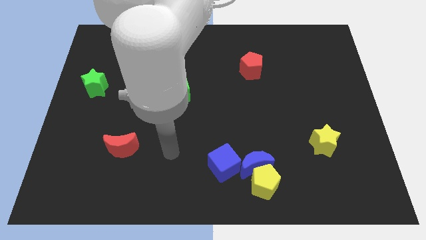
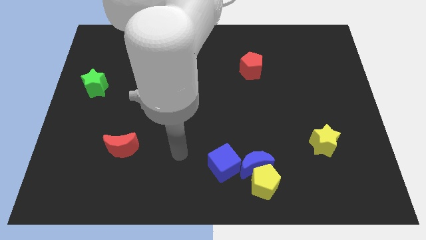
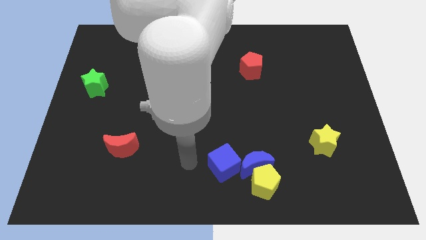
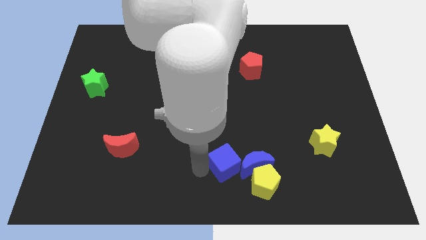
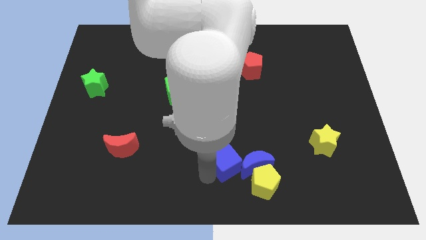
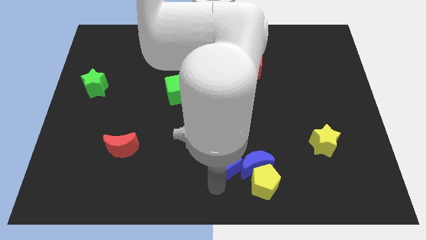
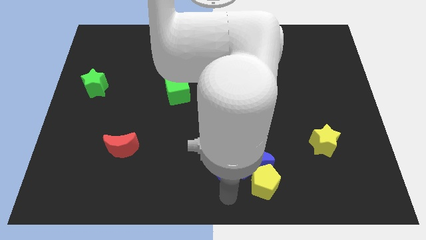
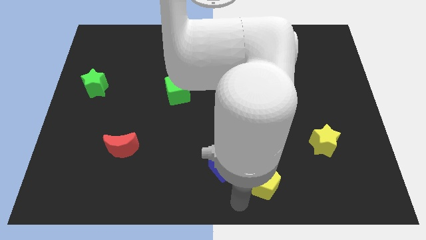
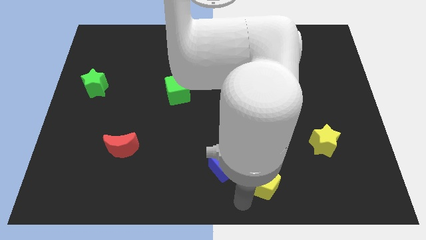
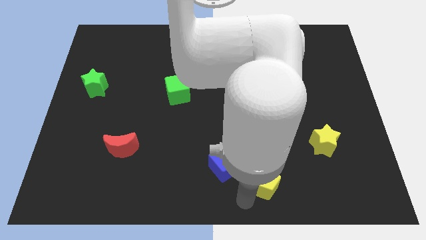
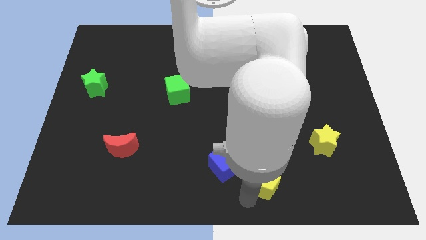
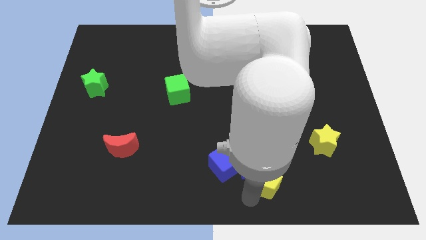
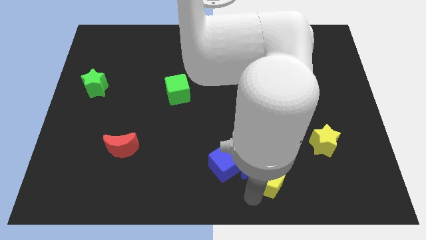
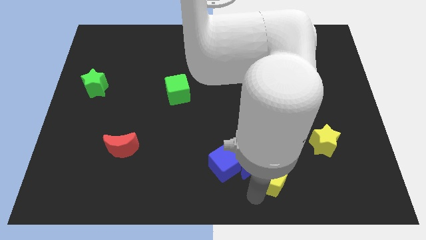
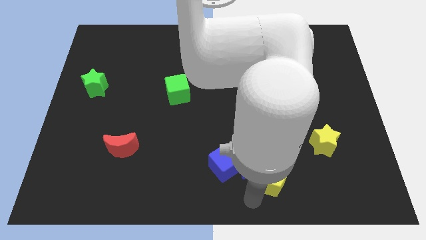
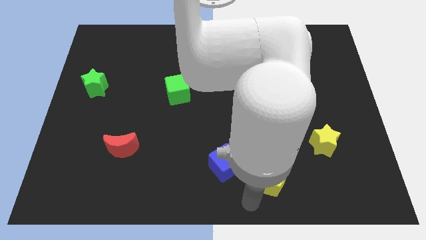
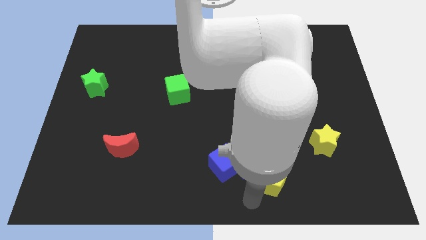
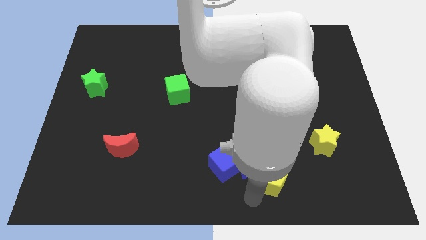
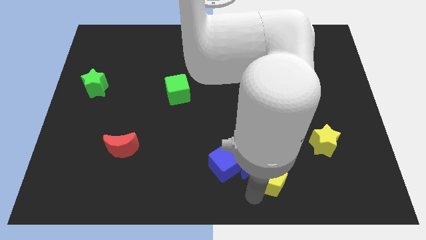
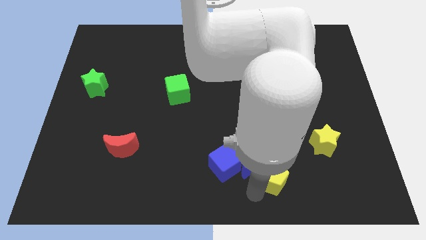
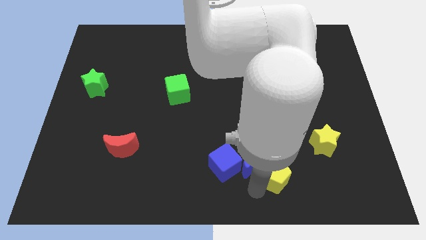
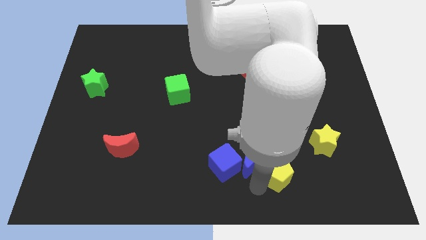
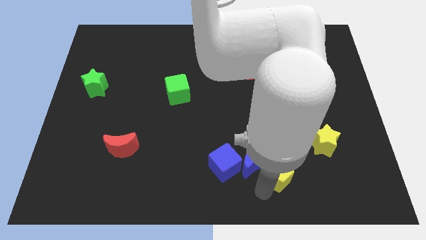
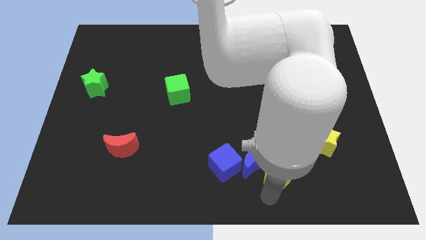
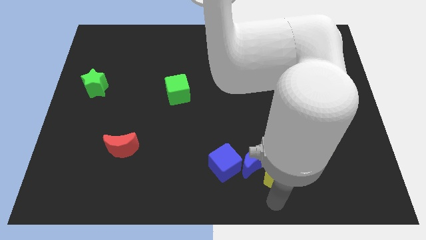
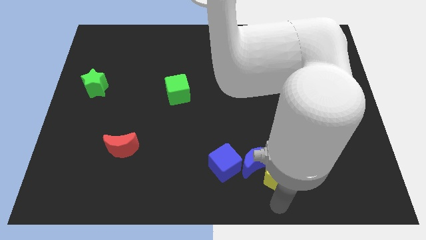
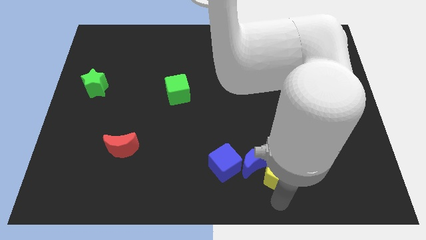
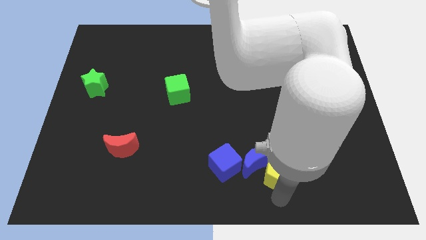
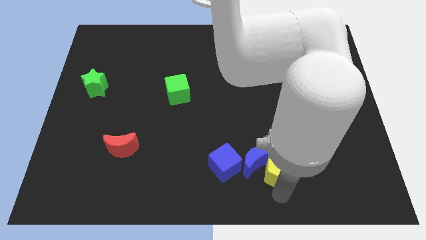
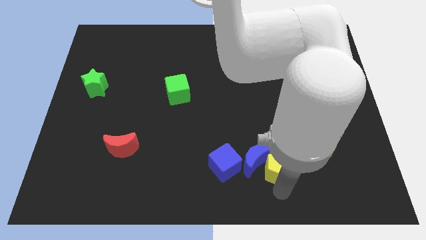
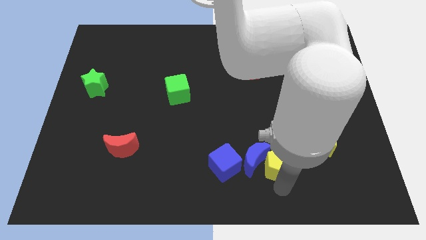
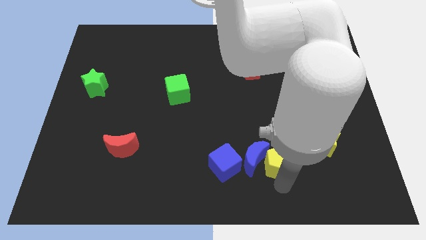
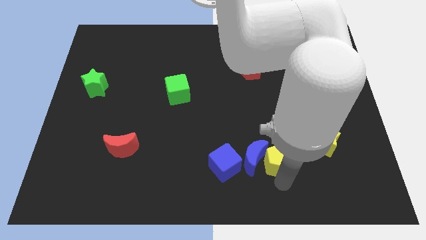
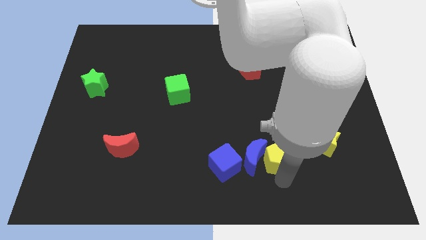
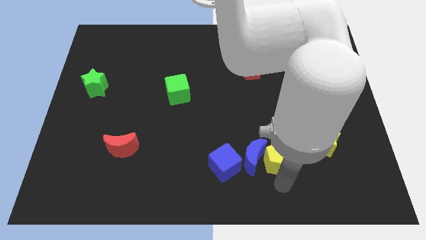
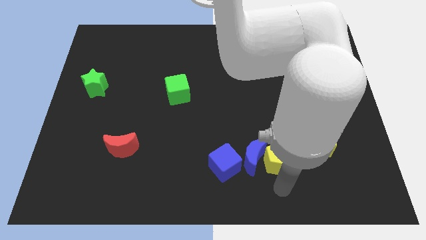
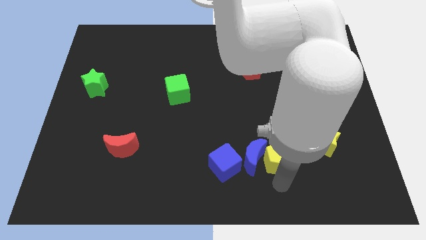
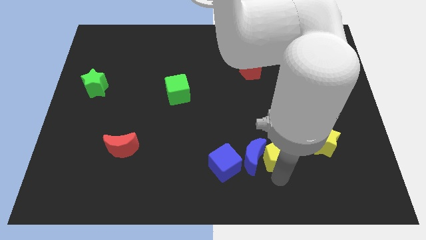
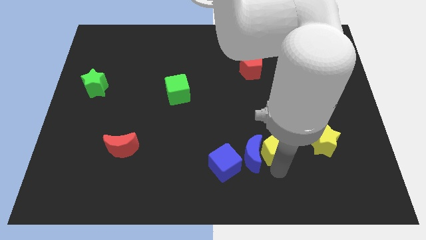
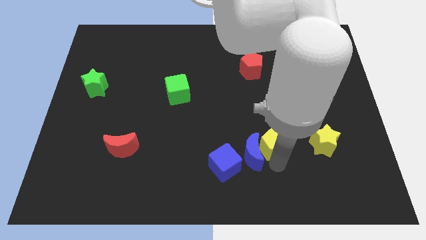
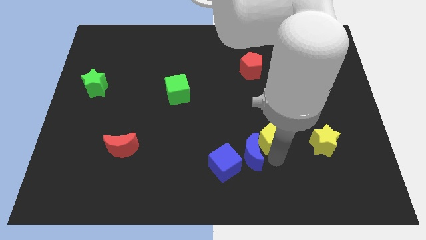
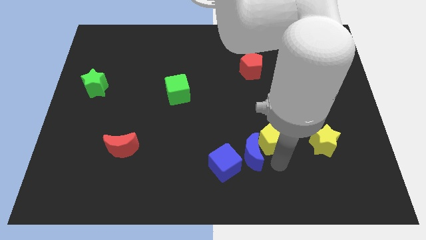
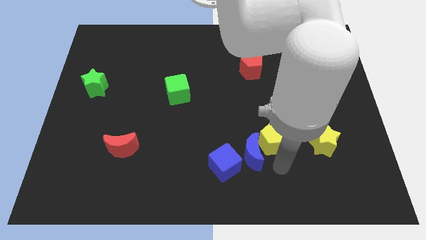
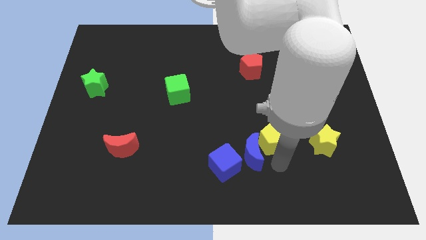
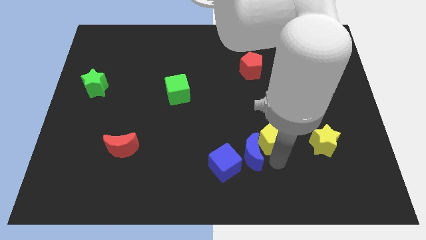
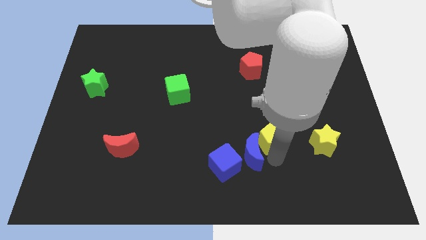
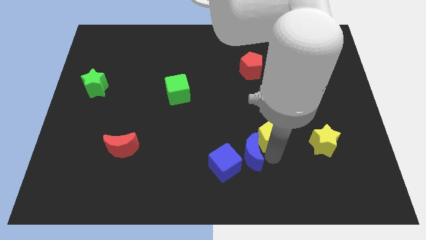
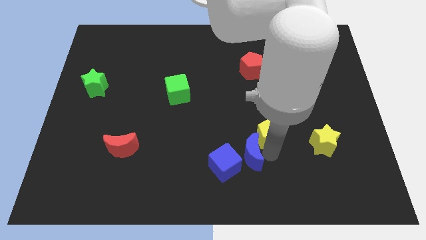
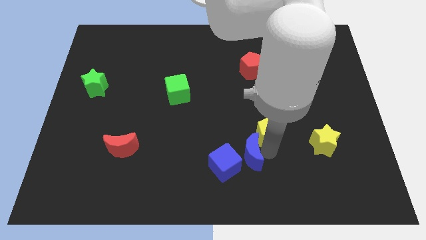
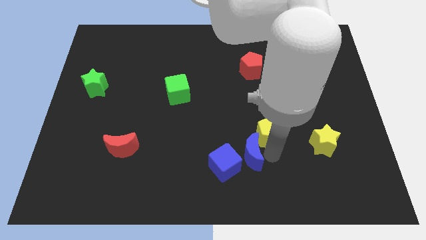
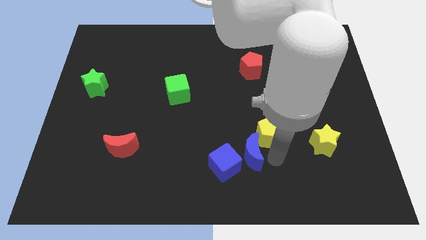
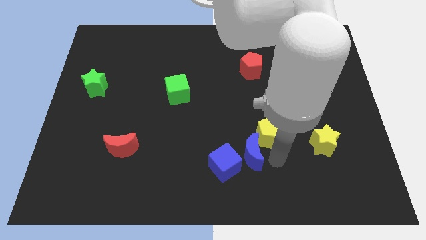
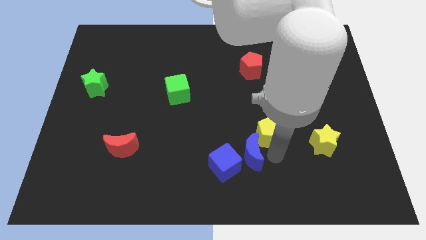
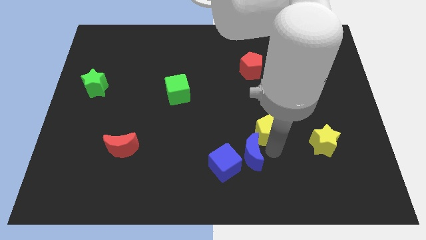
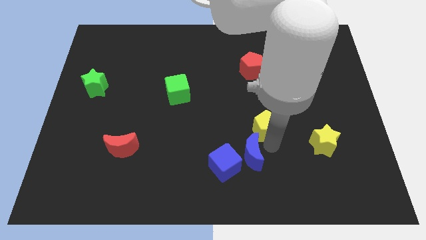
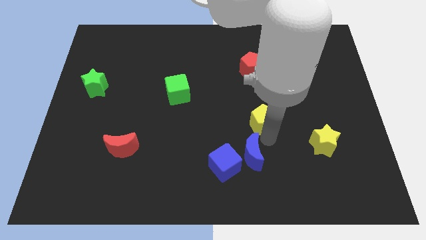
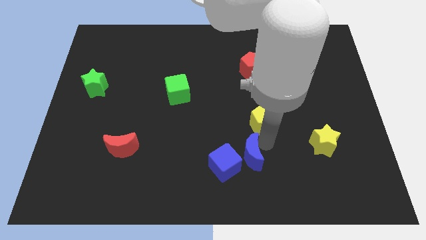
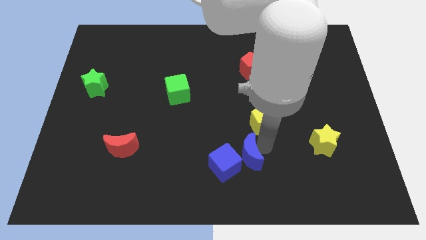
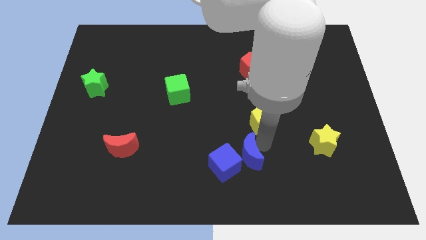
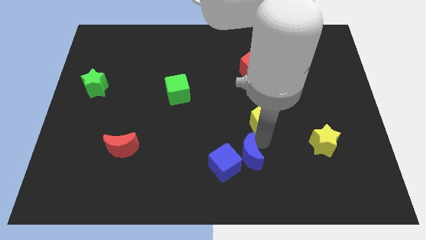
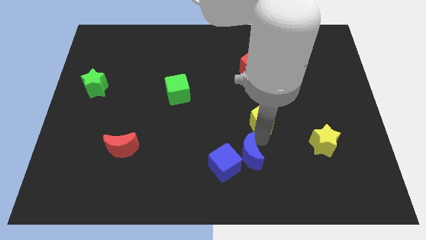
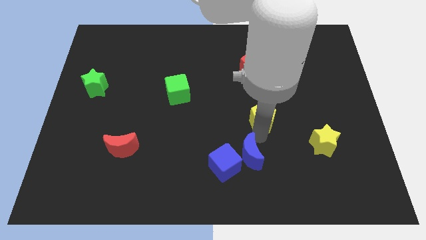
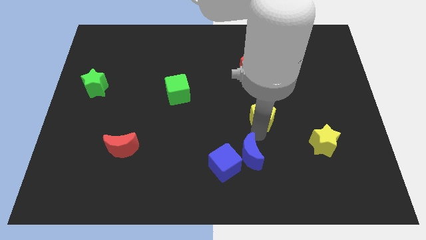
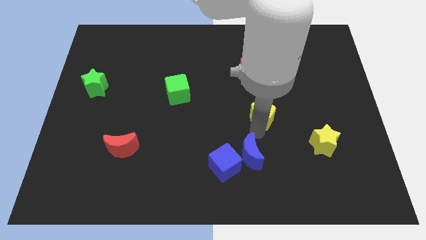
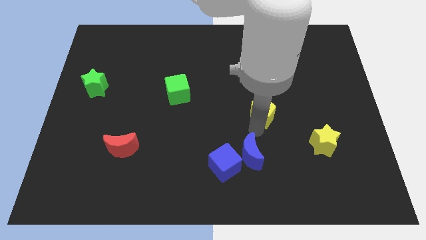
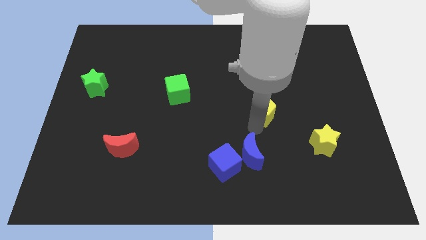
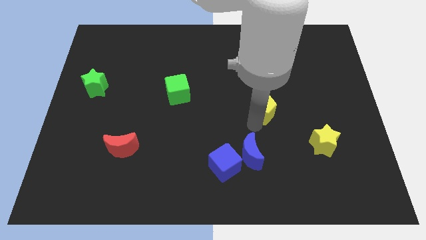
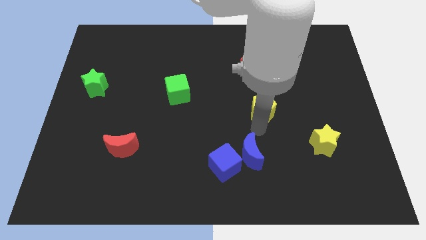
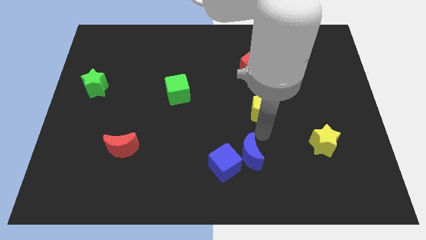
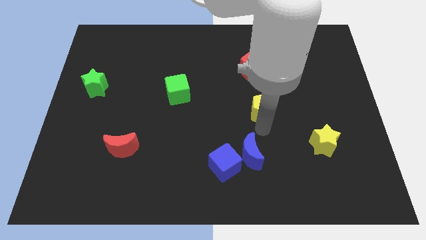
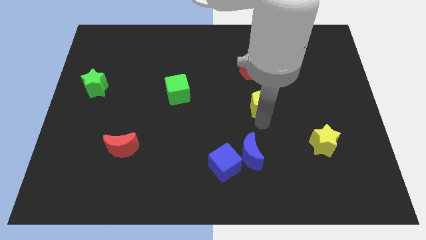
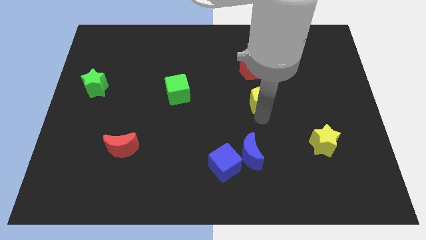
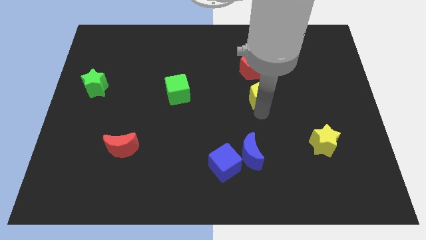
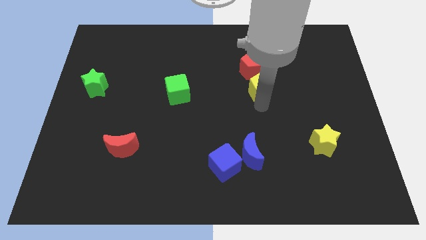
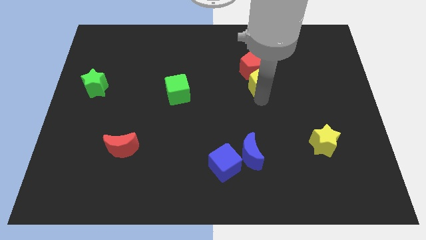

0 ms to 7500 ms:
put the yellow pentagon next to the red pentagon
